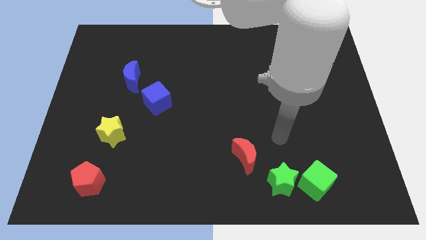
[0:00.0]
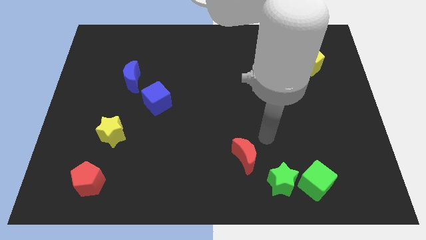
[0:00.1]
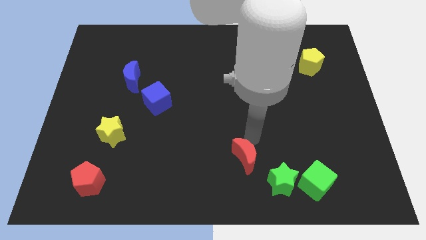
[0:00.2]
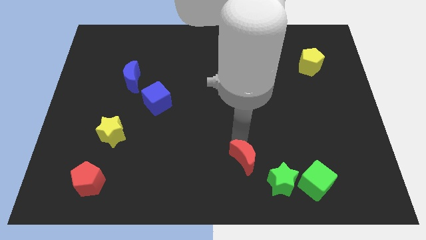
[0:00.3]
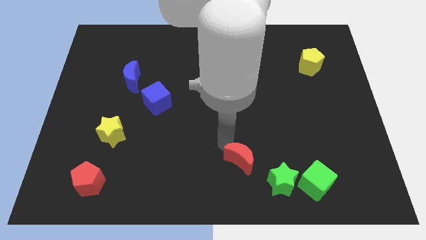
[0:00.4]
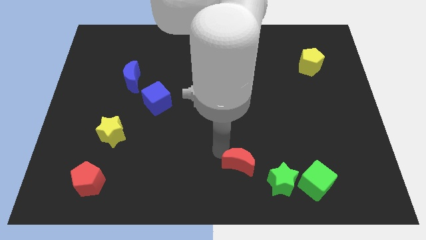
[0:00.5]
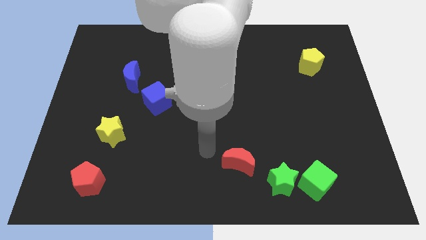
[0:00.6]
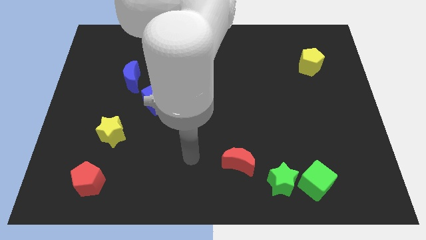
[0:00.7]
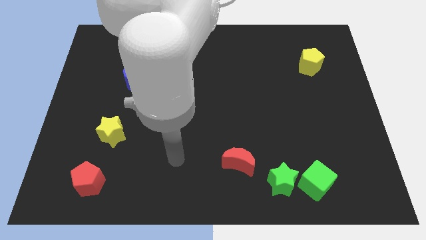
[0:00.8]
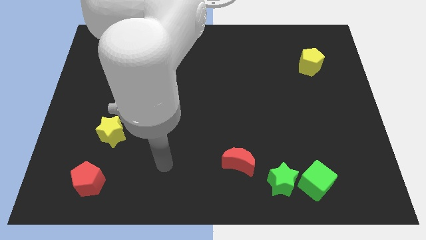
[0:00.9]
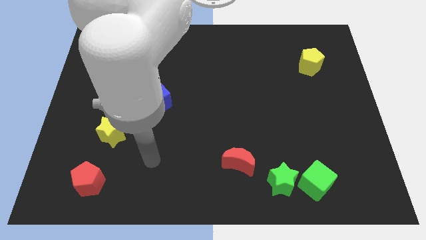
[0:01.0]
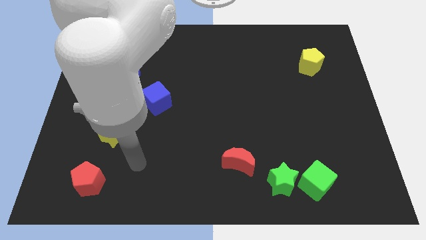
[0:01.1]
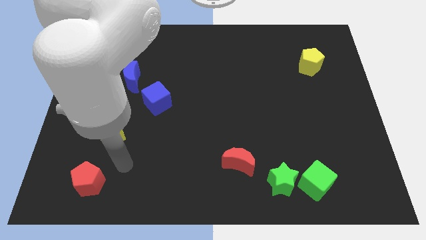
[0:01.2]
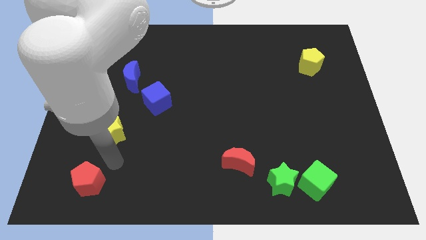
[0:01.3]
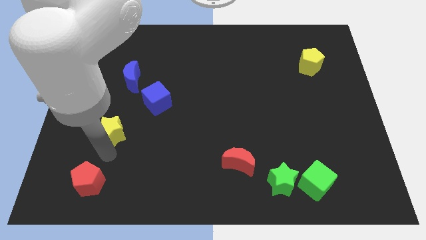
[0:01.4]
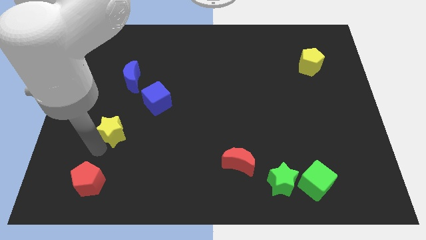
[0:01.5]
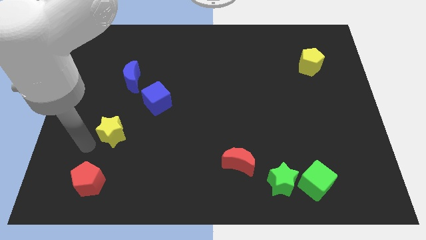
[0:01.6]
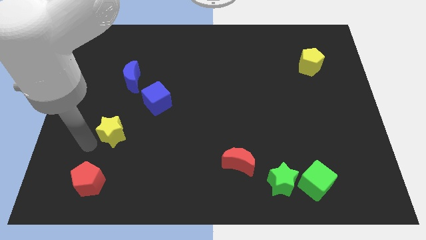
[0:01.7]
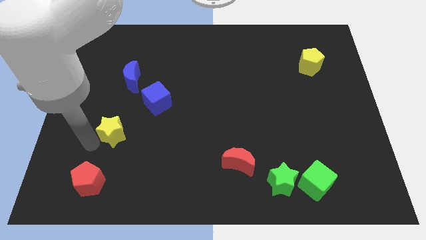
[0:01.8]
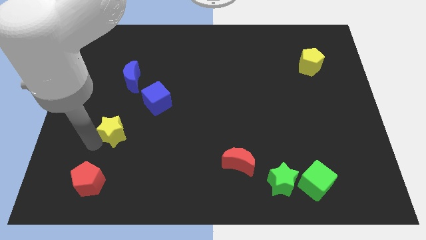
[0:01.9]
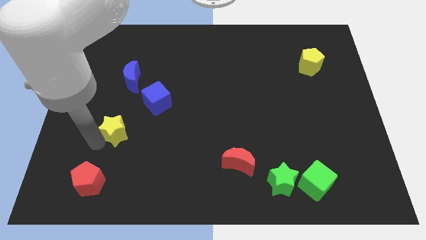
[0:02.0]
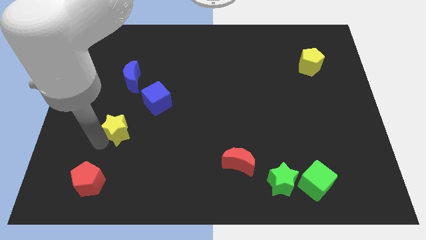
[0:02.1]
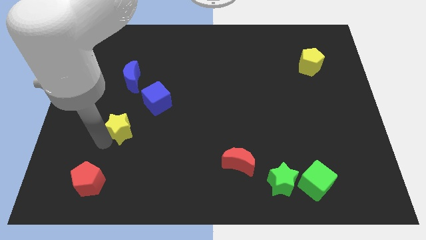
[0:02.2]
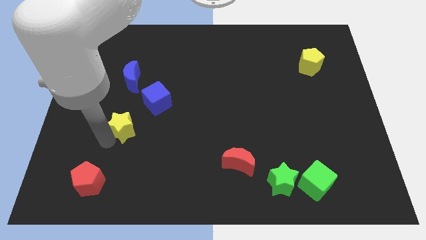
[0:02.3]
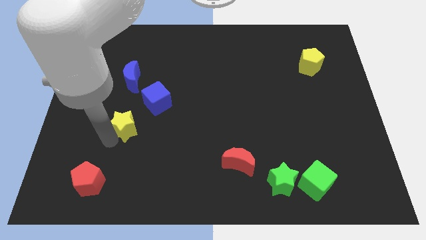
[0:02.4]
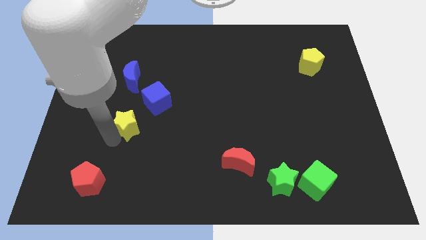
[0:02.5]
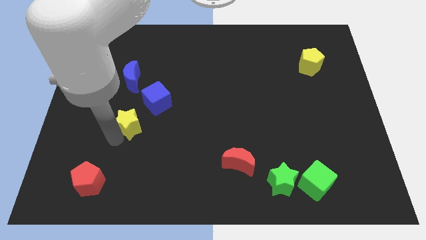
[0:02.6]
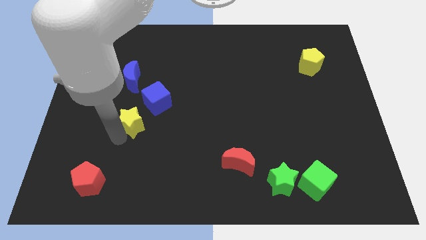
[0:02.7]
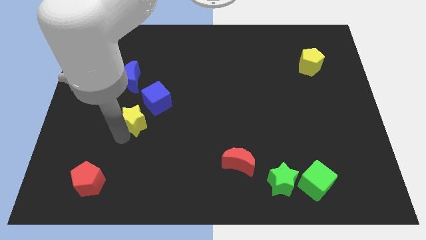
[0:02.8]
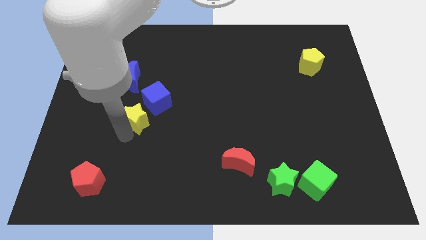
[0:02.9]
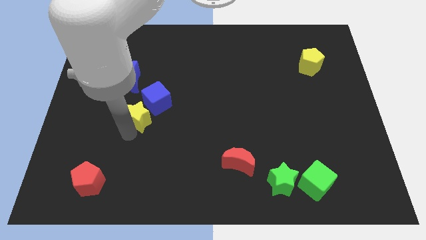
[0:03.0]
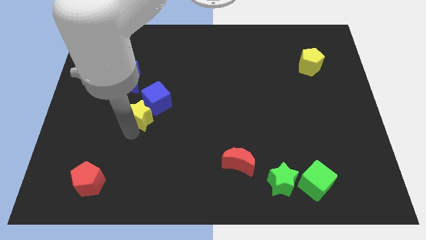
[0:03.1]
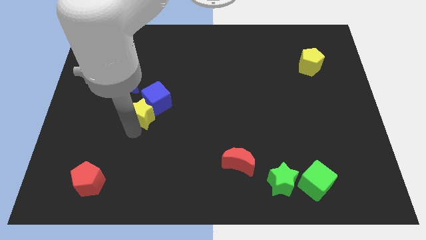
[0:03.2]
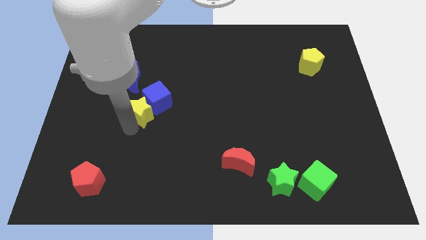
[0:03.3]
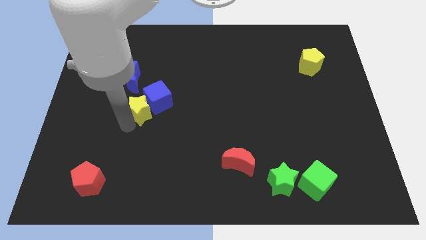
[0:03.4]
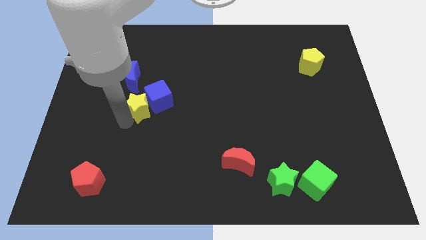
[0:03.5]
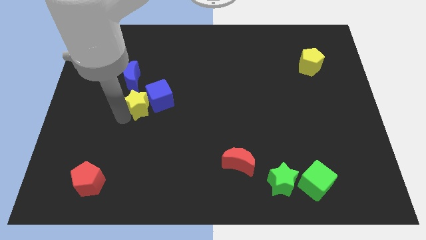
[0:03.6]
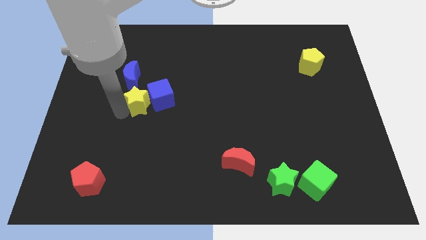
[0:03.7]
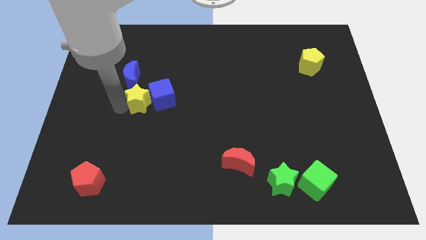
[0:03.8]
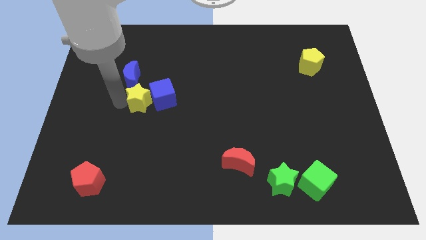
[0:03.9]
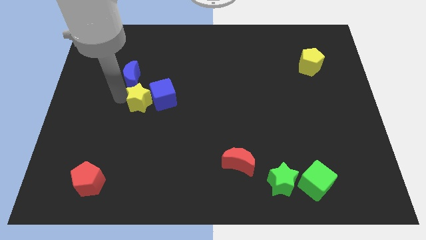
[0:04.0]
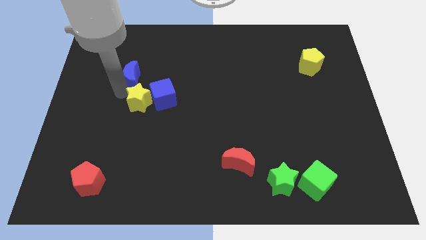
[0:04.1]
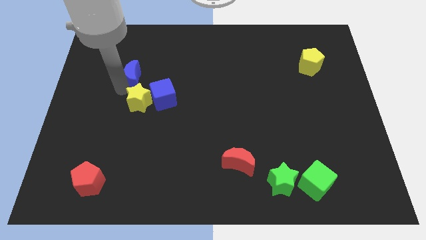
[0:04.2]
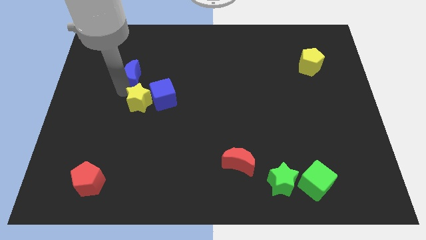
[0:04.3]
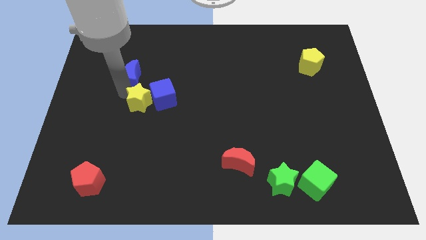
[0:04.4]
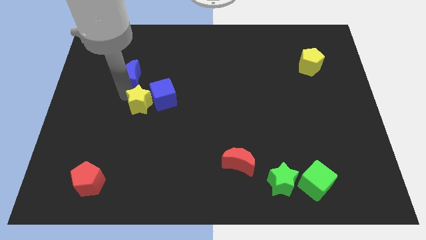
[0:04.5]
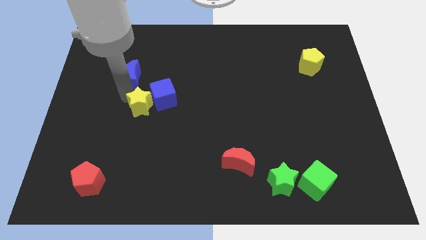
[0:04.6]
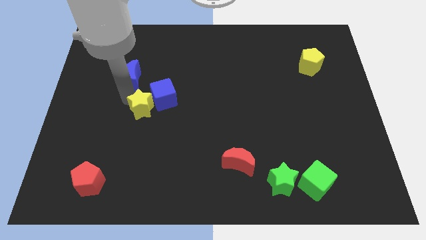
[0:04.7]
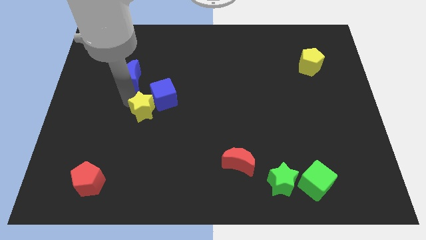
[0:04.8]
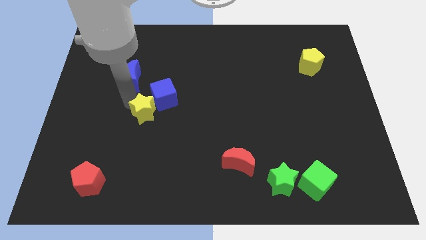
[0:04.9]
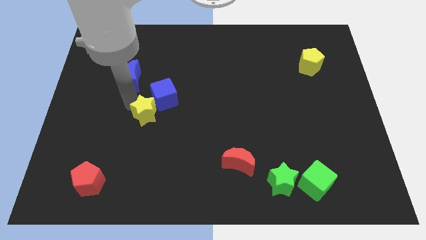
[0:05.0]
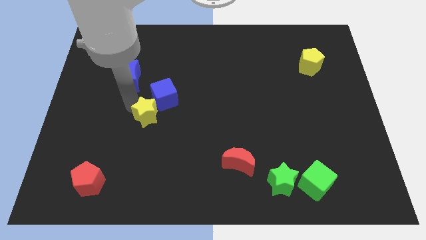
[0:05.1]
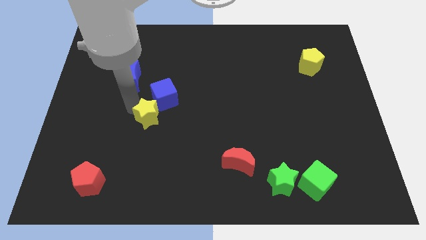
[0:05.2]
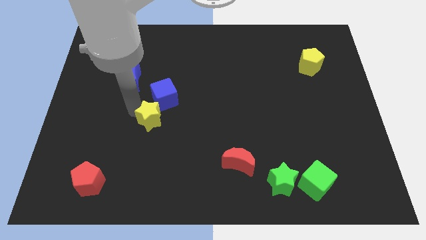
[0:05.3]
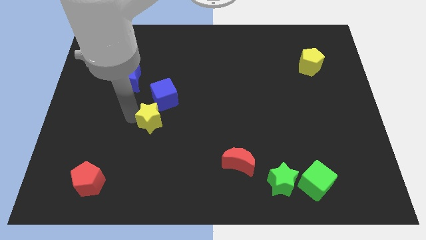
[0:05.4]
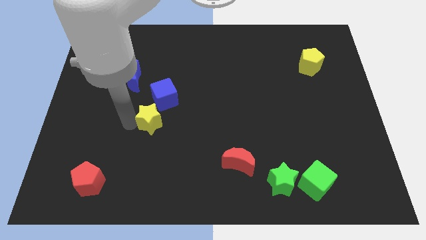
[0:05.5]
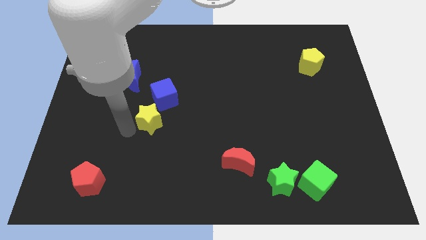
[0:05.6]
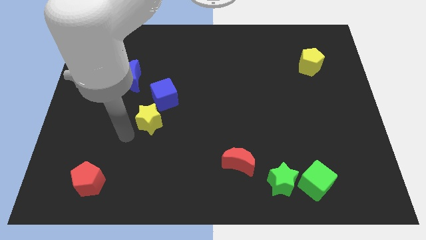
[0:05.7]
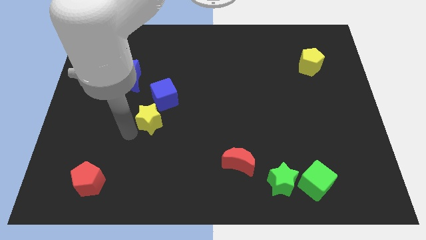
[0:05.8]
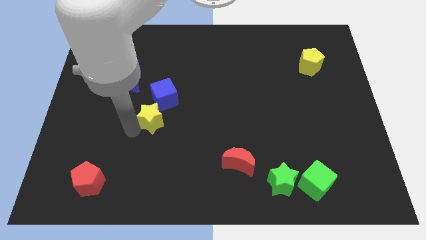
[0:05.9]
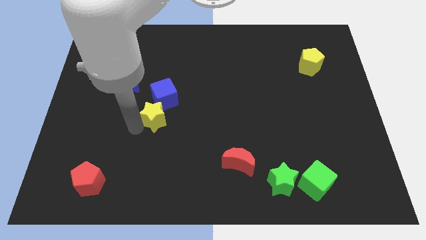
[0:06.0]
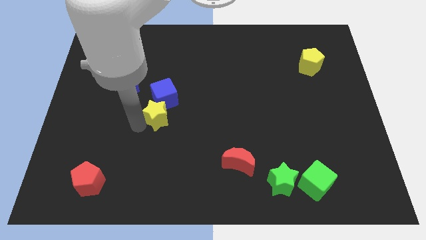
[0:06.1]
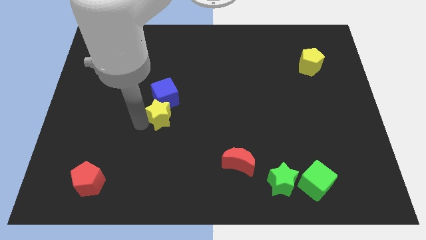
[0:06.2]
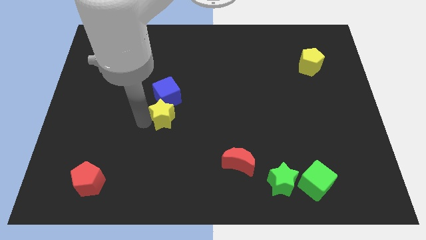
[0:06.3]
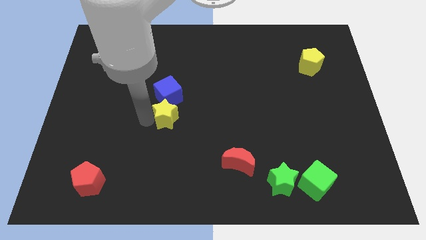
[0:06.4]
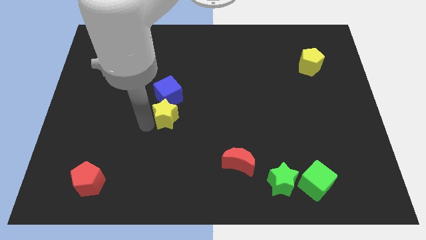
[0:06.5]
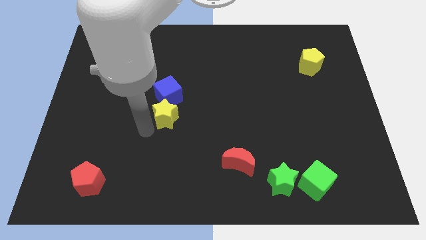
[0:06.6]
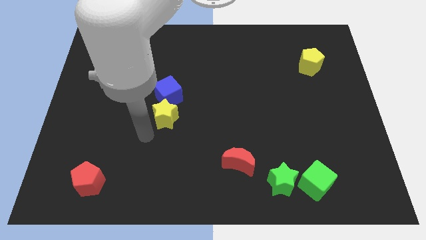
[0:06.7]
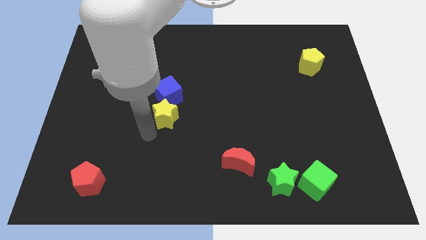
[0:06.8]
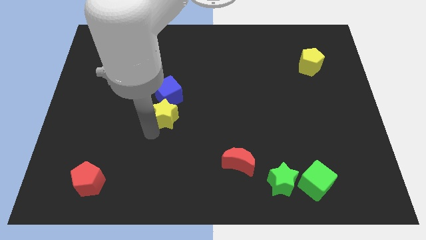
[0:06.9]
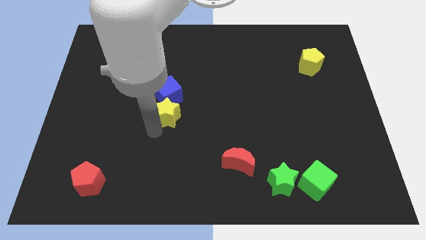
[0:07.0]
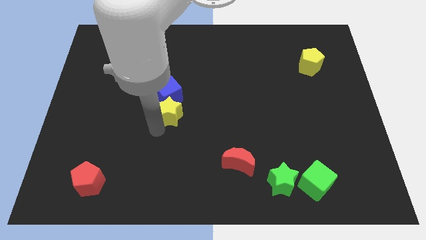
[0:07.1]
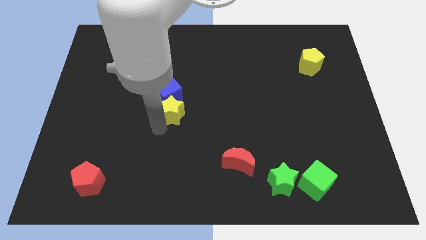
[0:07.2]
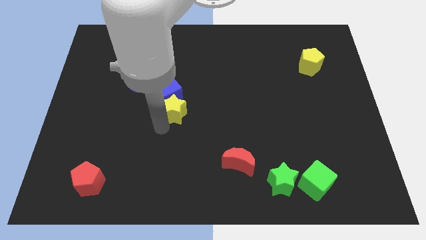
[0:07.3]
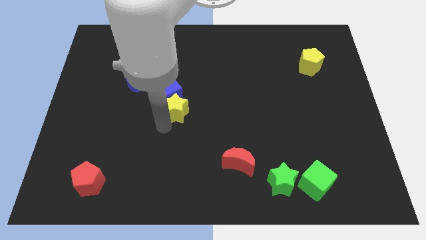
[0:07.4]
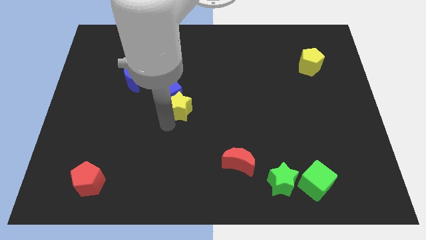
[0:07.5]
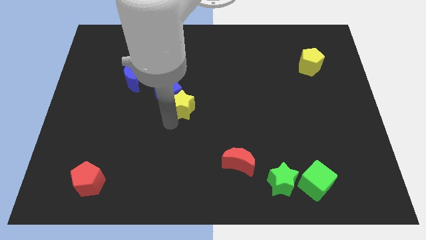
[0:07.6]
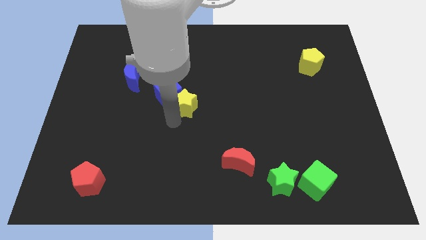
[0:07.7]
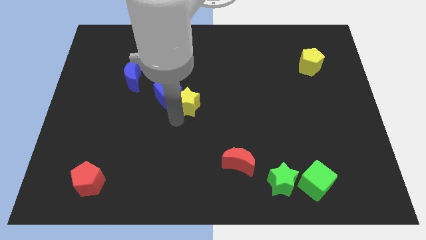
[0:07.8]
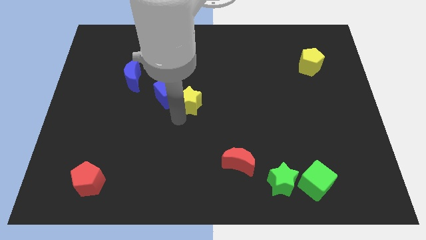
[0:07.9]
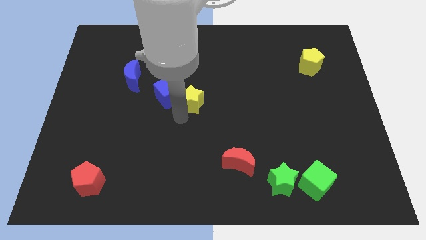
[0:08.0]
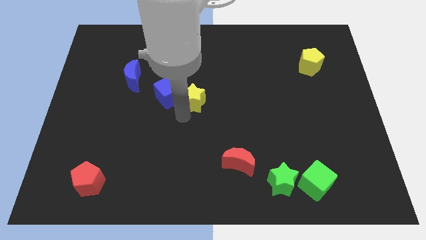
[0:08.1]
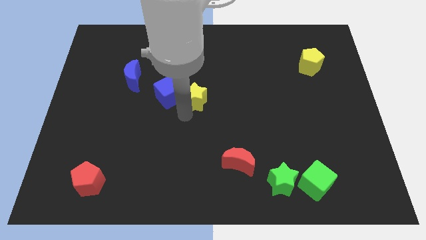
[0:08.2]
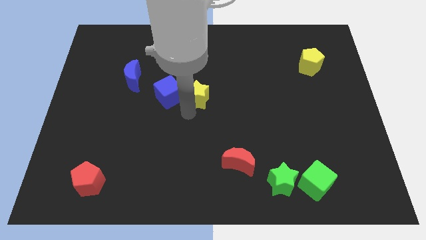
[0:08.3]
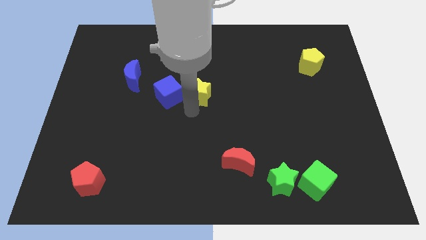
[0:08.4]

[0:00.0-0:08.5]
slide the yellow star diagonally up and right
